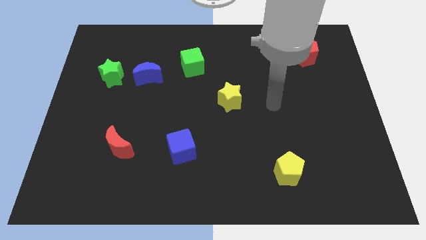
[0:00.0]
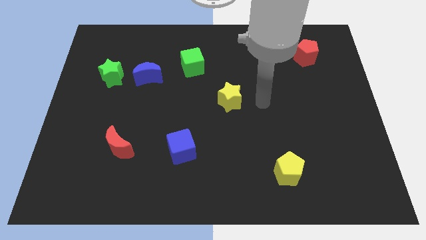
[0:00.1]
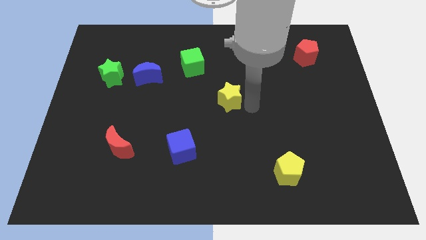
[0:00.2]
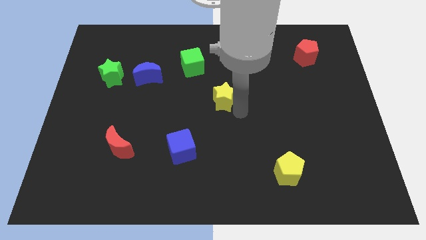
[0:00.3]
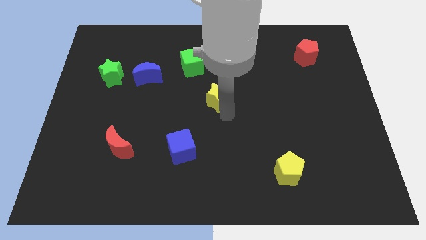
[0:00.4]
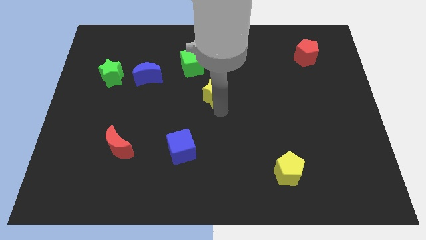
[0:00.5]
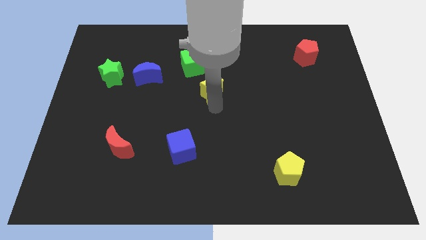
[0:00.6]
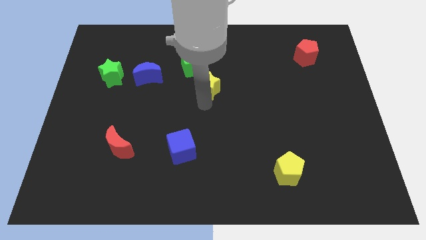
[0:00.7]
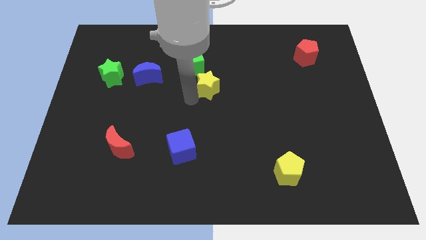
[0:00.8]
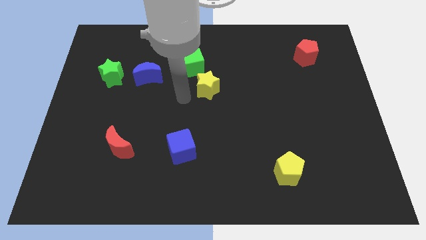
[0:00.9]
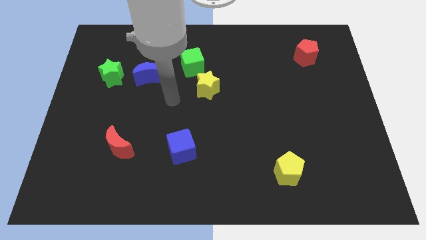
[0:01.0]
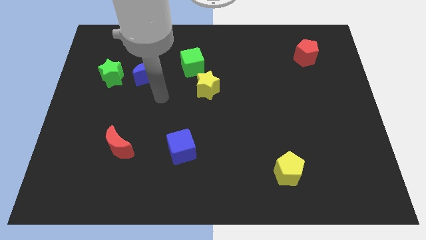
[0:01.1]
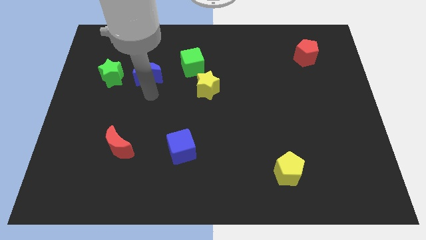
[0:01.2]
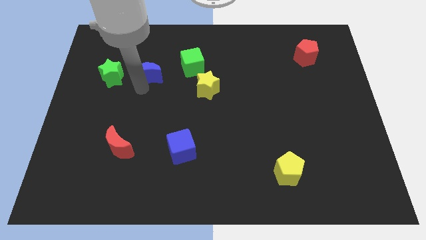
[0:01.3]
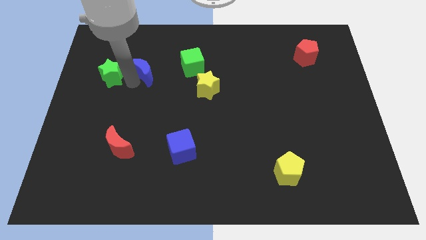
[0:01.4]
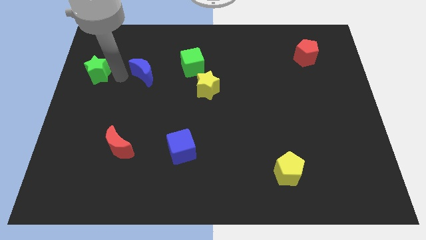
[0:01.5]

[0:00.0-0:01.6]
move the blue moon away from the green star

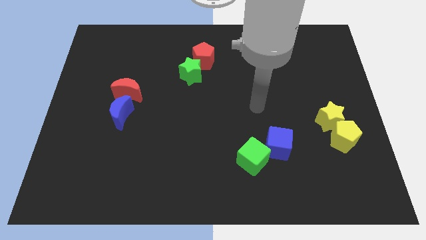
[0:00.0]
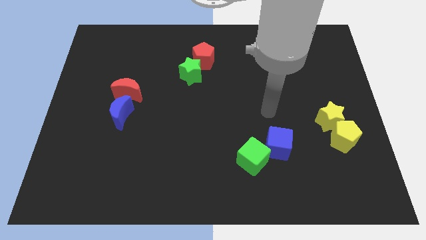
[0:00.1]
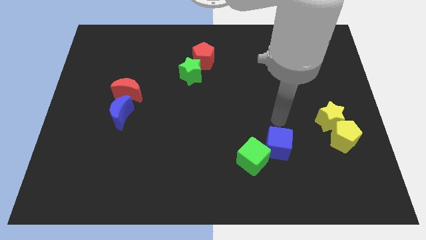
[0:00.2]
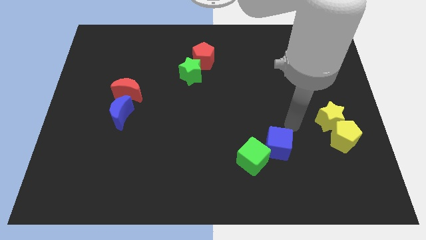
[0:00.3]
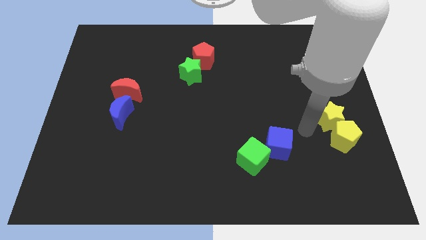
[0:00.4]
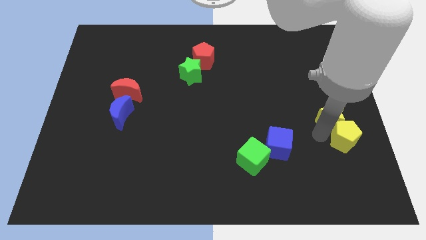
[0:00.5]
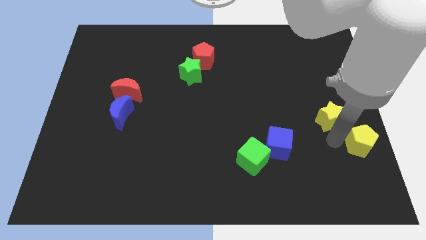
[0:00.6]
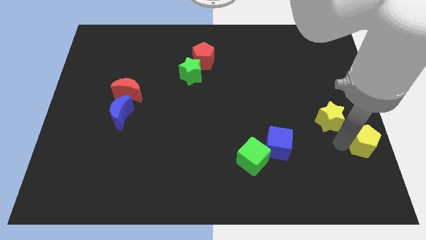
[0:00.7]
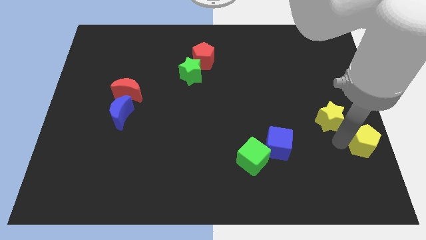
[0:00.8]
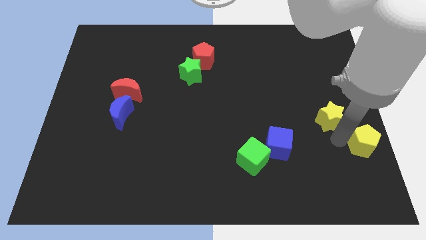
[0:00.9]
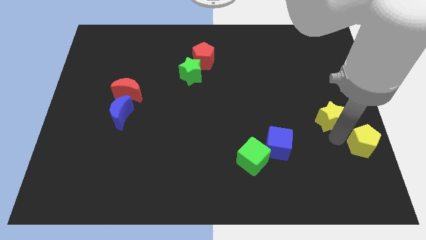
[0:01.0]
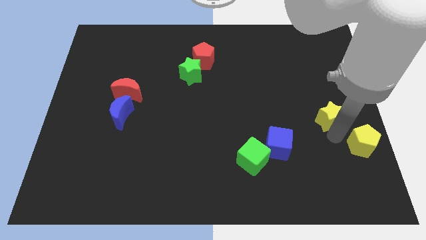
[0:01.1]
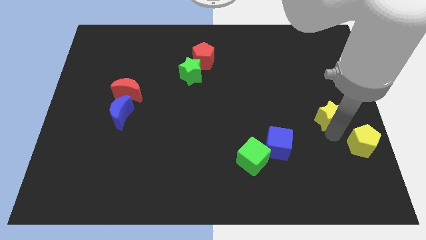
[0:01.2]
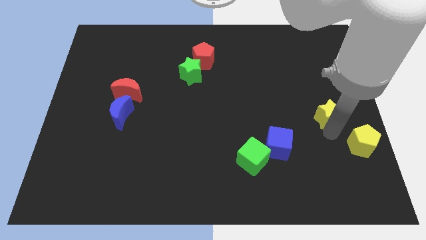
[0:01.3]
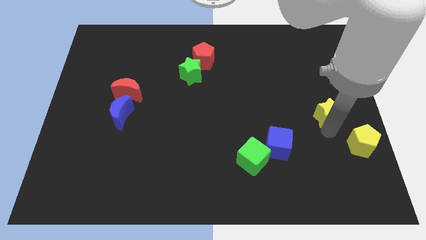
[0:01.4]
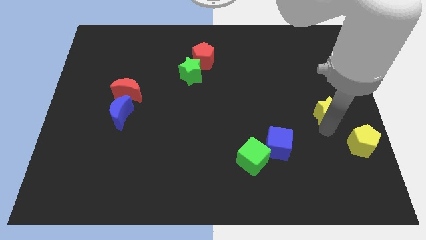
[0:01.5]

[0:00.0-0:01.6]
pull the yellow star apart from the yellow pentagon

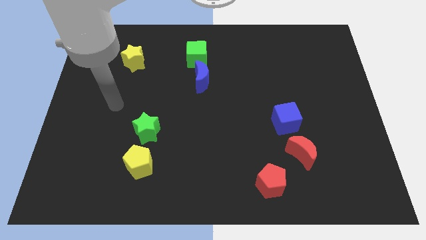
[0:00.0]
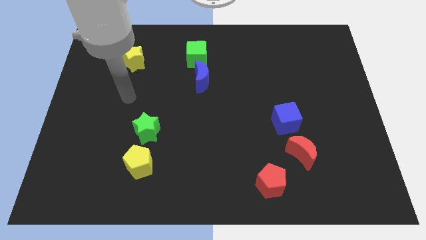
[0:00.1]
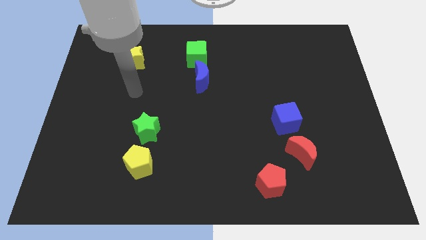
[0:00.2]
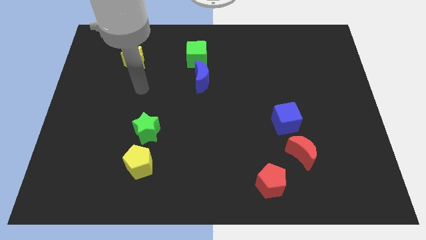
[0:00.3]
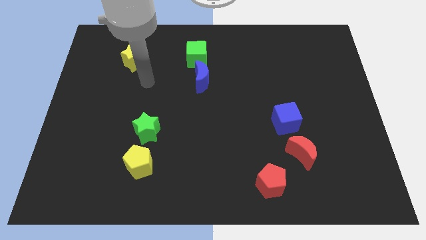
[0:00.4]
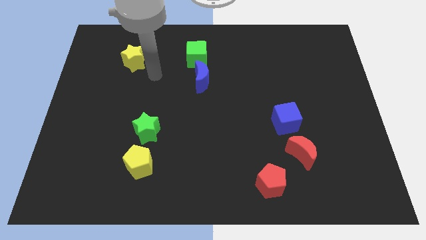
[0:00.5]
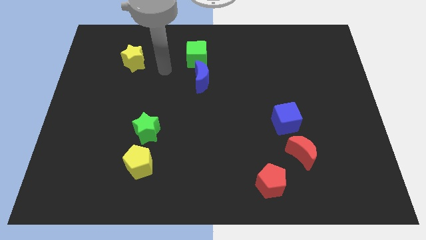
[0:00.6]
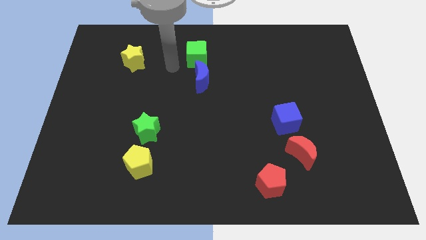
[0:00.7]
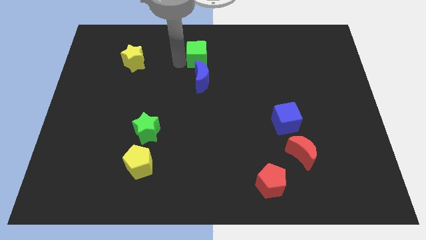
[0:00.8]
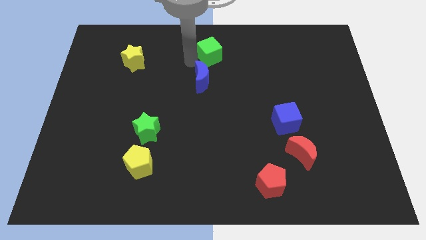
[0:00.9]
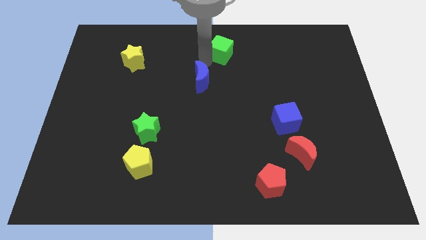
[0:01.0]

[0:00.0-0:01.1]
separate the blue moon from the green cube

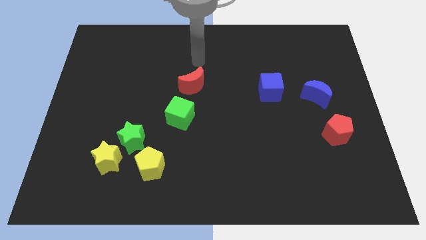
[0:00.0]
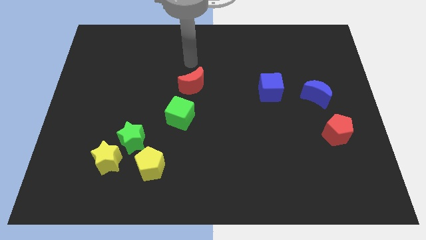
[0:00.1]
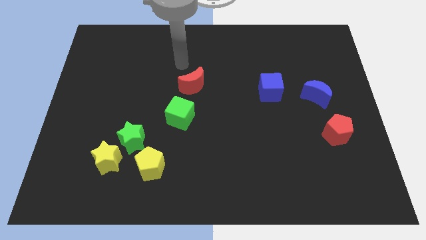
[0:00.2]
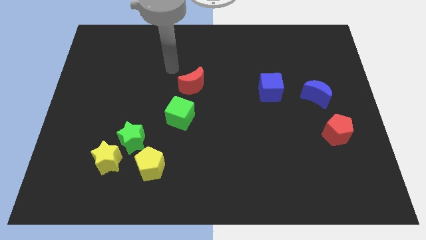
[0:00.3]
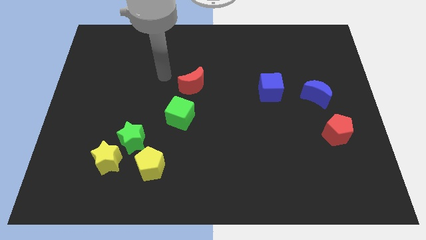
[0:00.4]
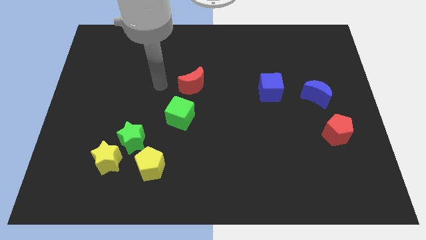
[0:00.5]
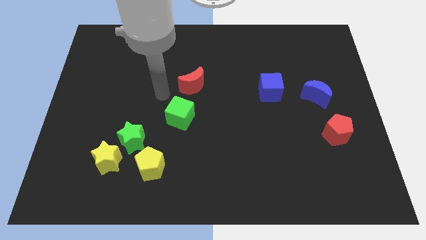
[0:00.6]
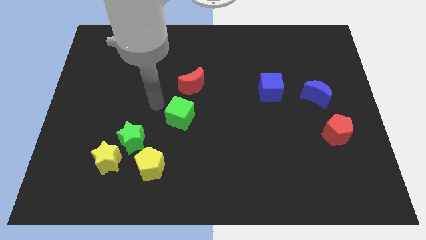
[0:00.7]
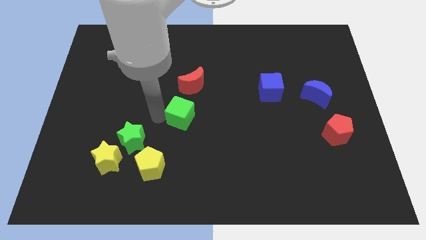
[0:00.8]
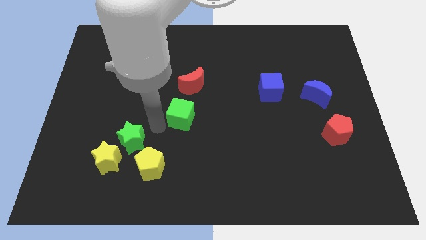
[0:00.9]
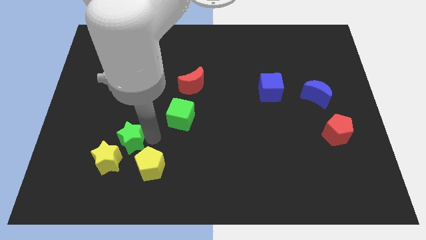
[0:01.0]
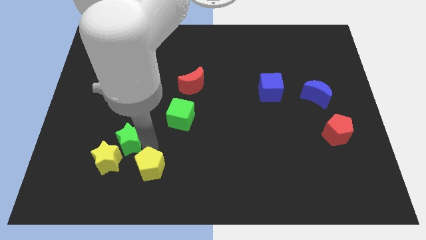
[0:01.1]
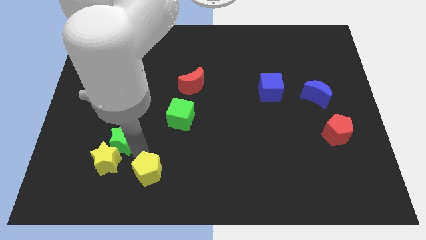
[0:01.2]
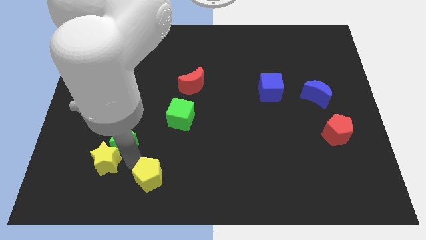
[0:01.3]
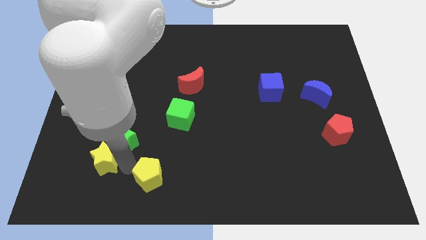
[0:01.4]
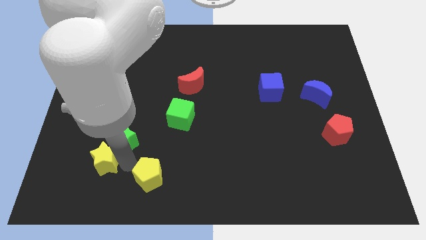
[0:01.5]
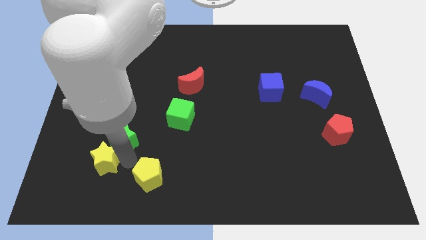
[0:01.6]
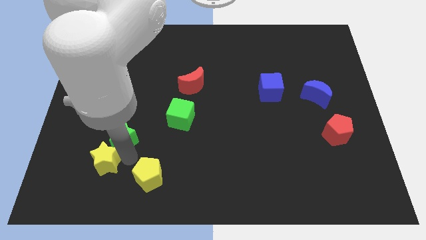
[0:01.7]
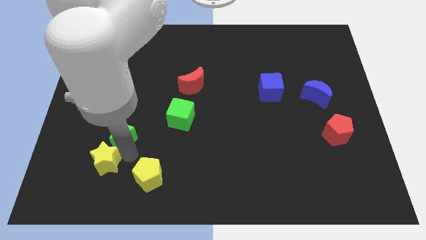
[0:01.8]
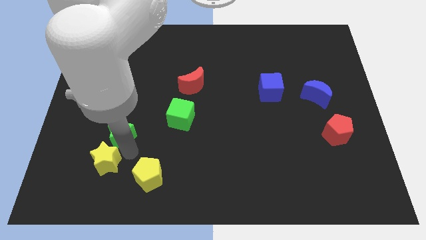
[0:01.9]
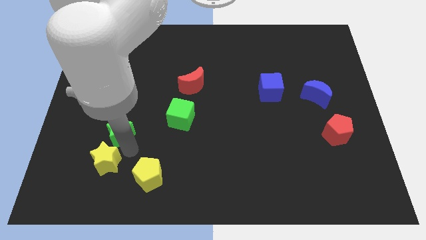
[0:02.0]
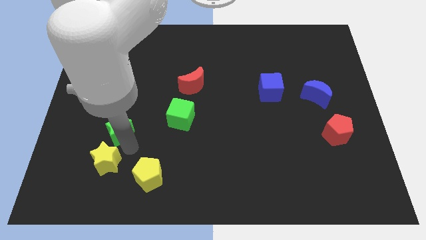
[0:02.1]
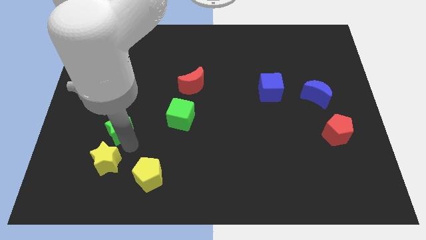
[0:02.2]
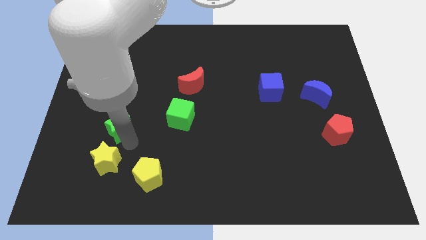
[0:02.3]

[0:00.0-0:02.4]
separate the green star from the yellow star and yellow pentagon

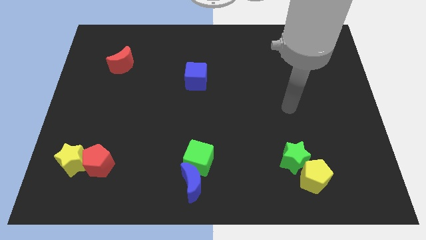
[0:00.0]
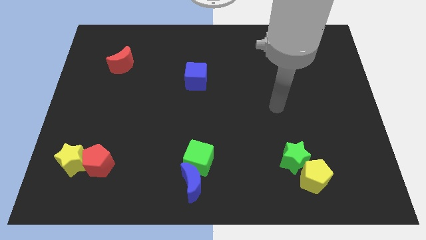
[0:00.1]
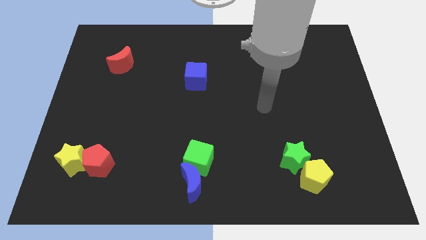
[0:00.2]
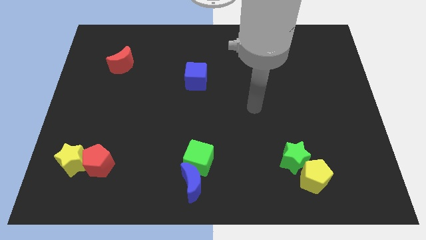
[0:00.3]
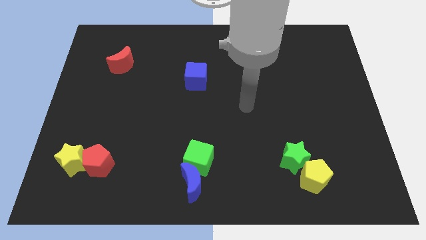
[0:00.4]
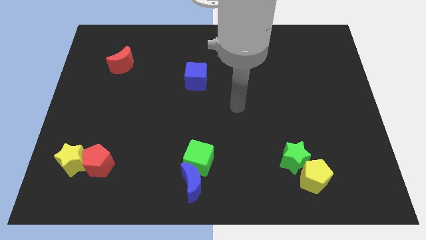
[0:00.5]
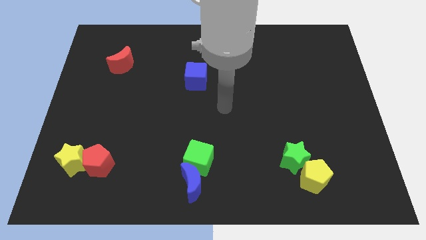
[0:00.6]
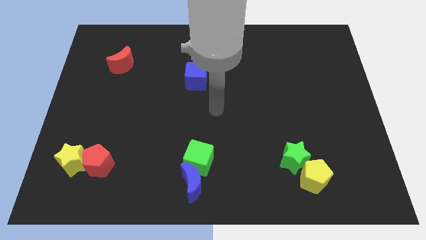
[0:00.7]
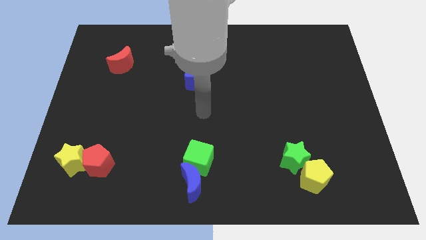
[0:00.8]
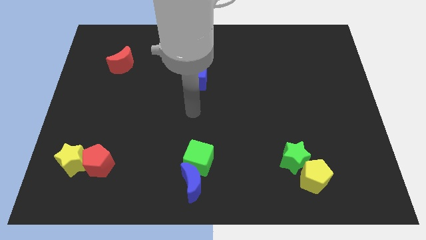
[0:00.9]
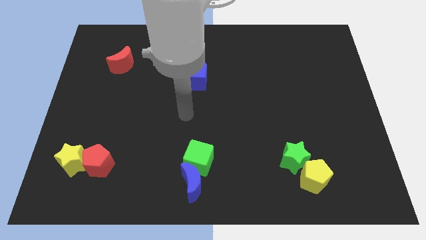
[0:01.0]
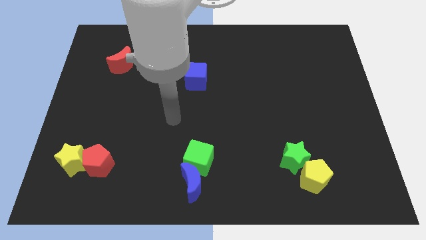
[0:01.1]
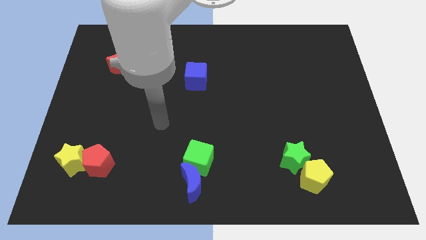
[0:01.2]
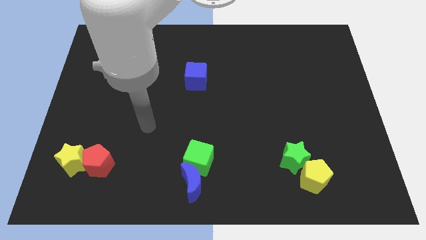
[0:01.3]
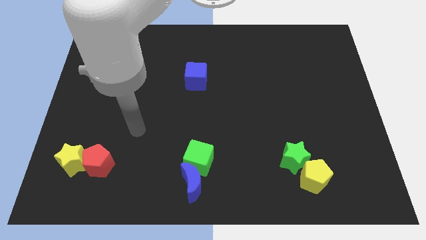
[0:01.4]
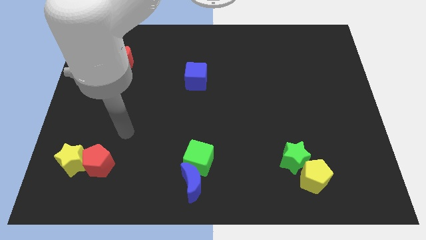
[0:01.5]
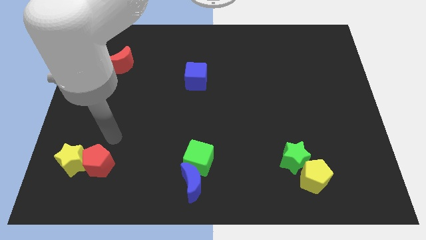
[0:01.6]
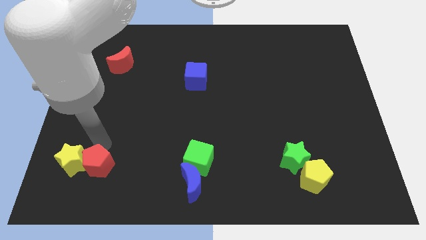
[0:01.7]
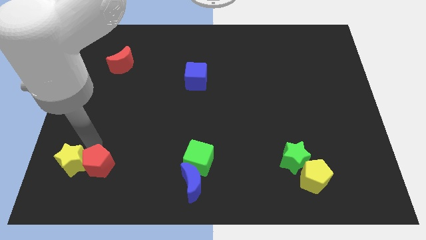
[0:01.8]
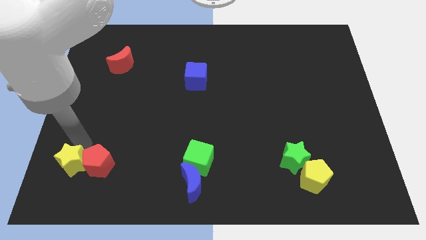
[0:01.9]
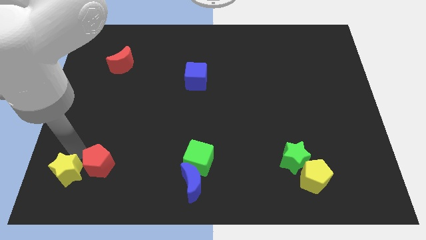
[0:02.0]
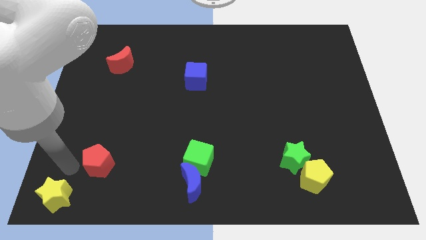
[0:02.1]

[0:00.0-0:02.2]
separate the red pentagon from the yellow star

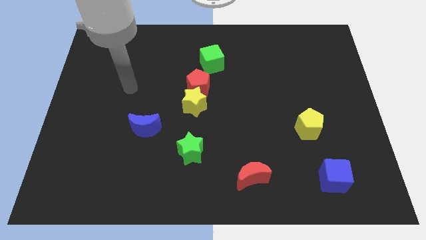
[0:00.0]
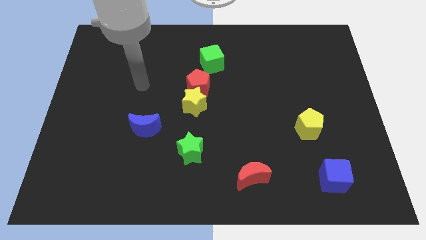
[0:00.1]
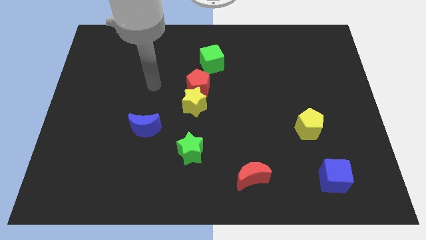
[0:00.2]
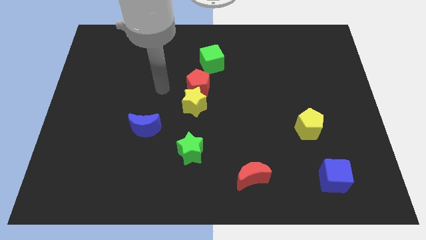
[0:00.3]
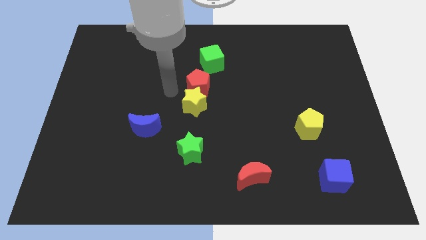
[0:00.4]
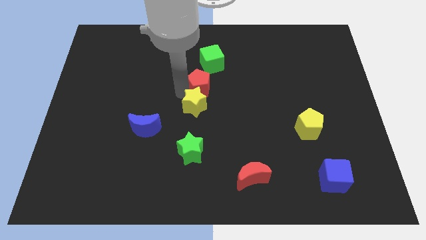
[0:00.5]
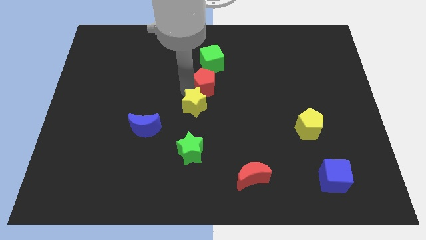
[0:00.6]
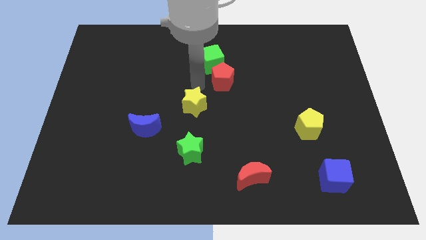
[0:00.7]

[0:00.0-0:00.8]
separate the yellow star from the red pentagon
